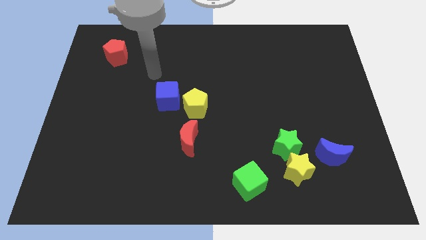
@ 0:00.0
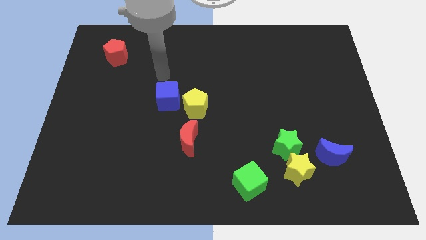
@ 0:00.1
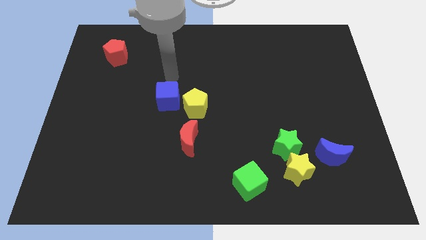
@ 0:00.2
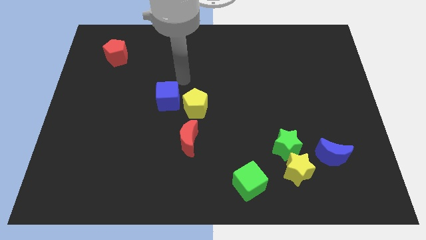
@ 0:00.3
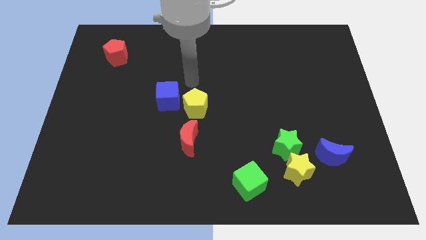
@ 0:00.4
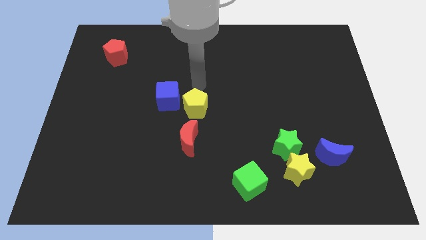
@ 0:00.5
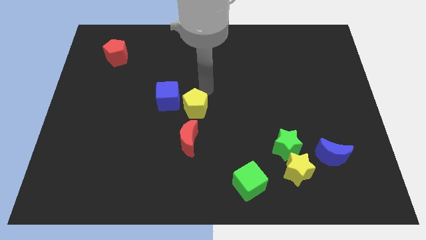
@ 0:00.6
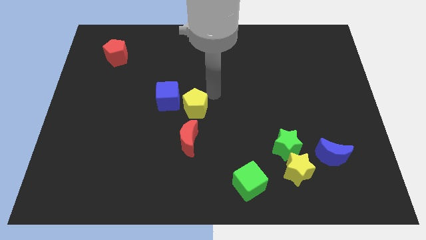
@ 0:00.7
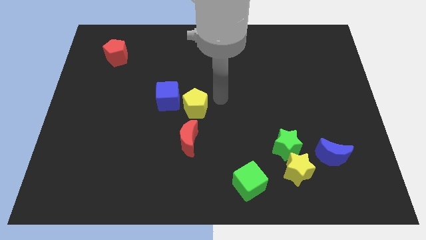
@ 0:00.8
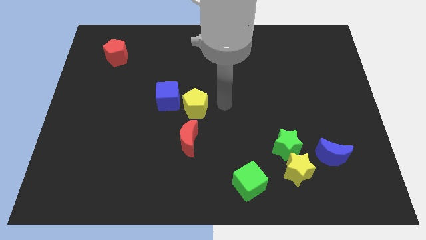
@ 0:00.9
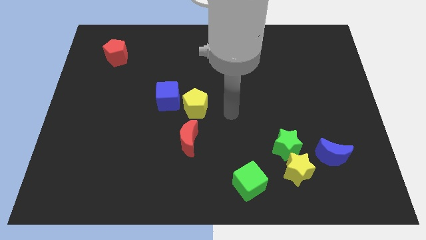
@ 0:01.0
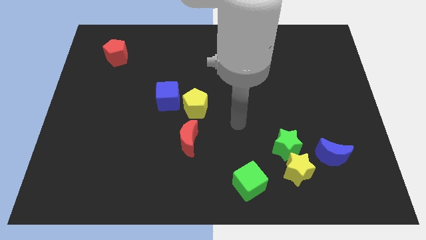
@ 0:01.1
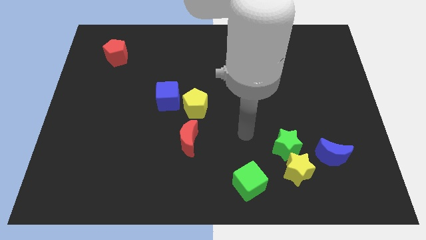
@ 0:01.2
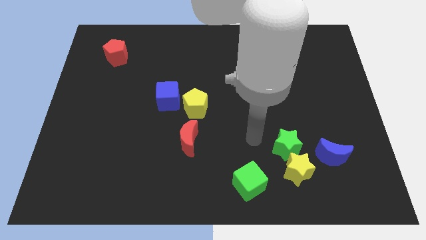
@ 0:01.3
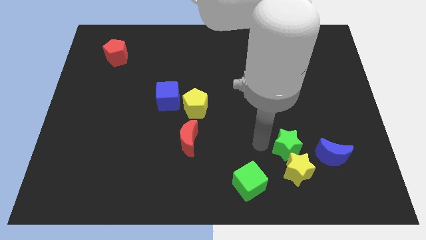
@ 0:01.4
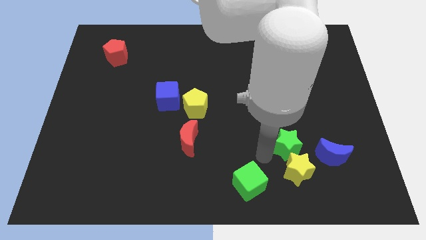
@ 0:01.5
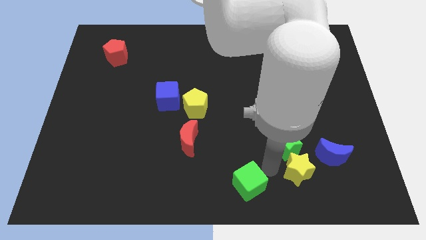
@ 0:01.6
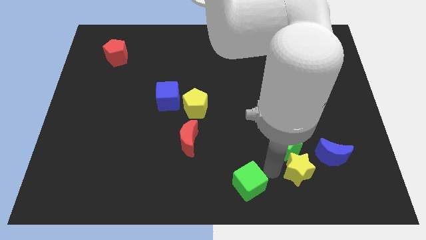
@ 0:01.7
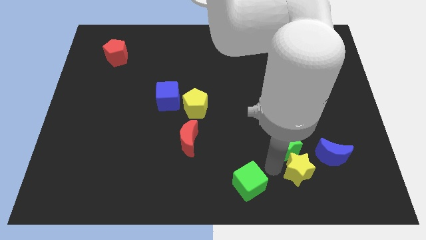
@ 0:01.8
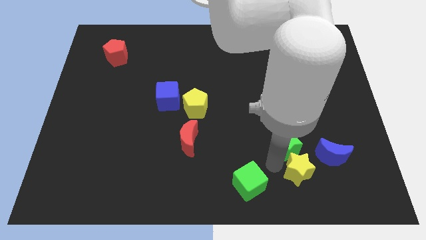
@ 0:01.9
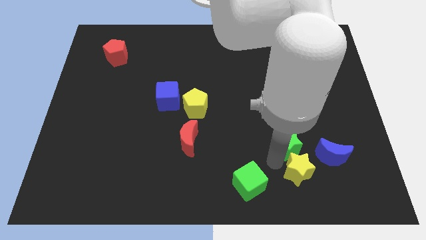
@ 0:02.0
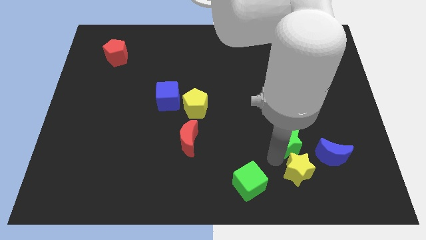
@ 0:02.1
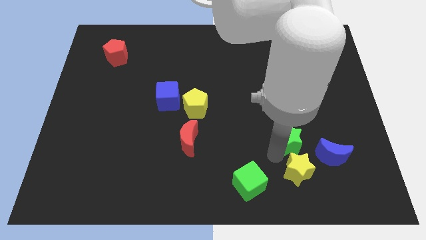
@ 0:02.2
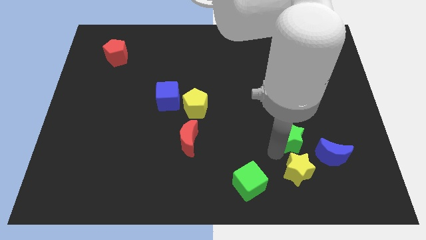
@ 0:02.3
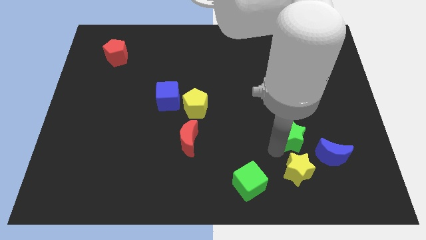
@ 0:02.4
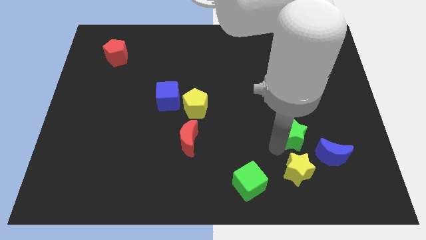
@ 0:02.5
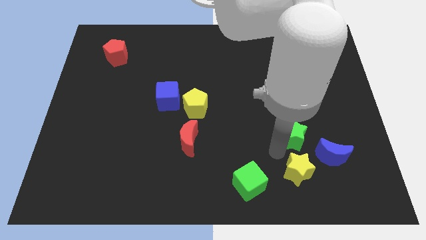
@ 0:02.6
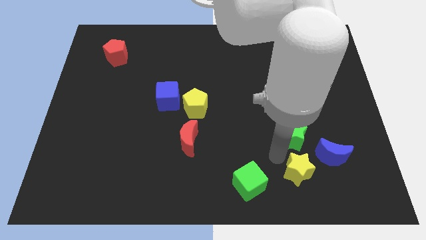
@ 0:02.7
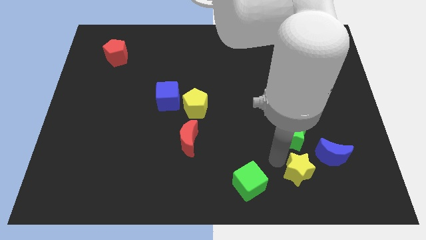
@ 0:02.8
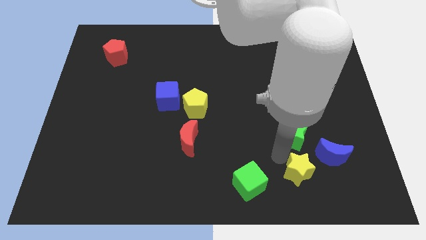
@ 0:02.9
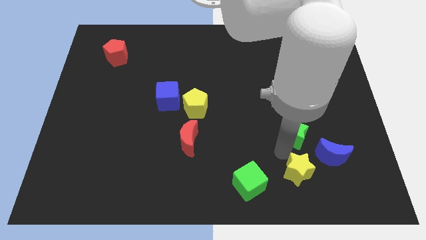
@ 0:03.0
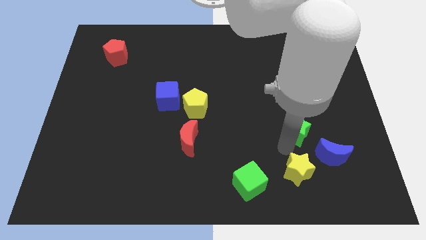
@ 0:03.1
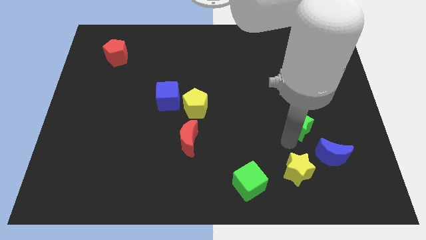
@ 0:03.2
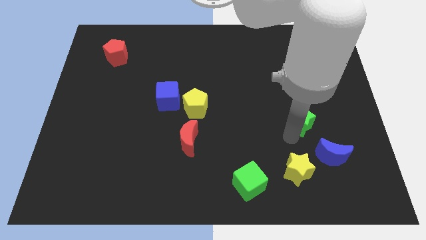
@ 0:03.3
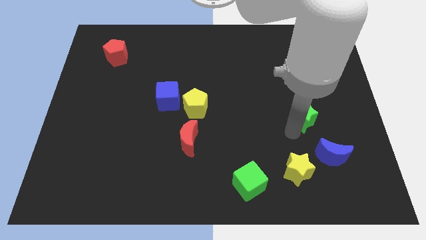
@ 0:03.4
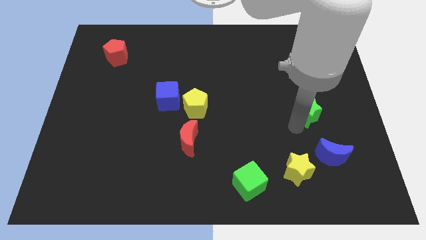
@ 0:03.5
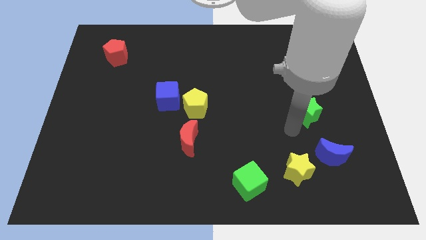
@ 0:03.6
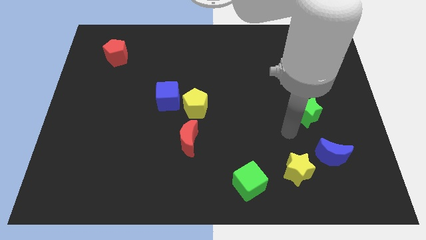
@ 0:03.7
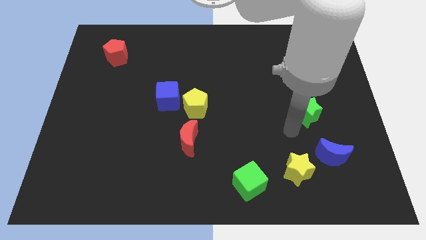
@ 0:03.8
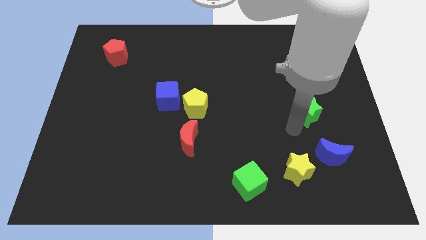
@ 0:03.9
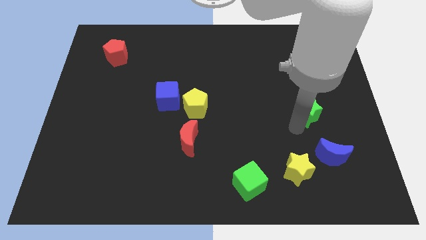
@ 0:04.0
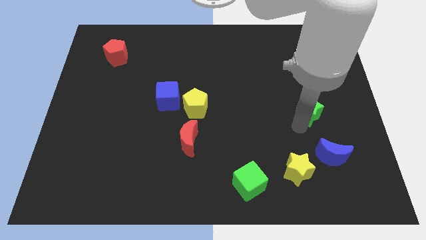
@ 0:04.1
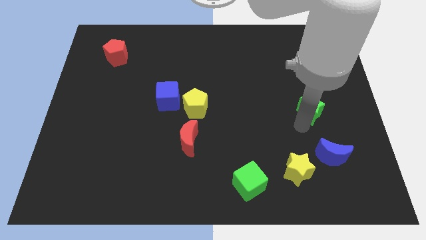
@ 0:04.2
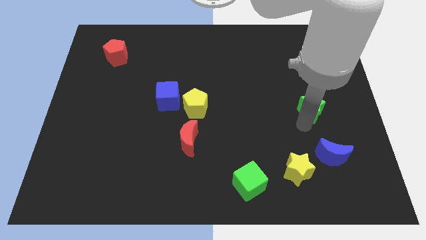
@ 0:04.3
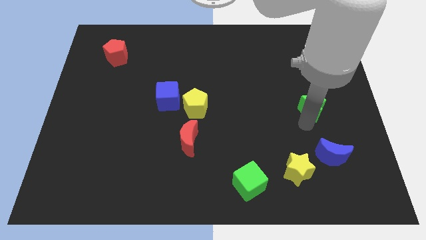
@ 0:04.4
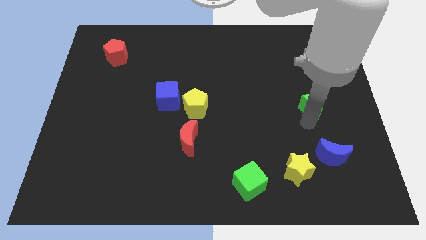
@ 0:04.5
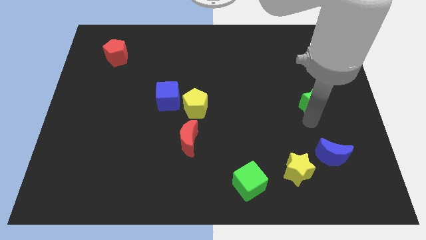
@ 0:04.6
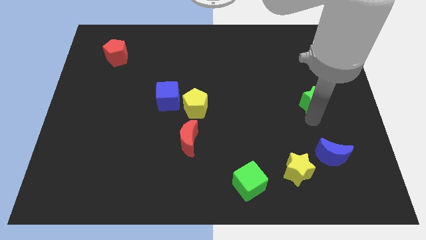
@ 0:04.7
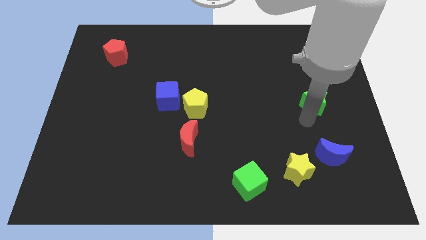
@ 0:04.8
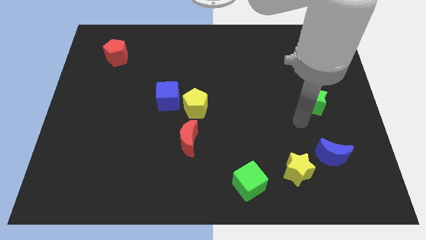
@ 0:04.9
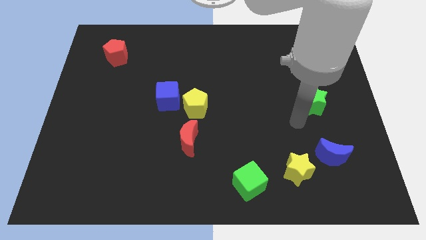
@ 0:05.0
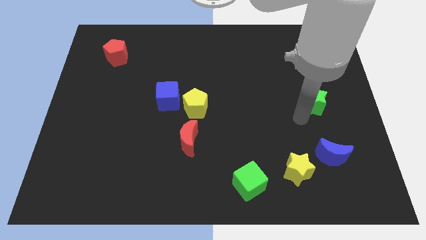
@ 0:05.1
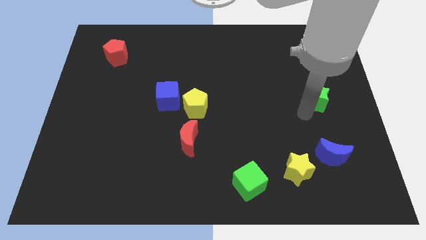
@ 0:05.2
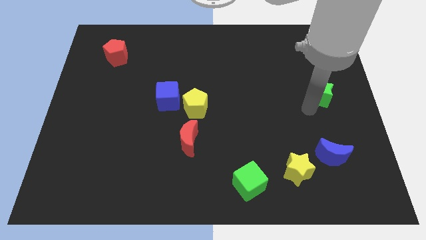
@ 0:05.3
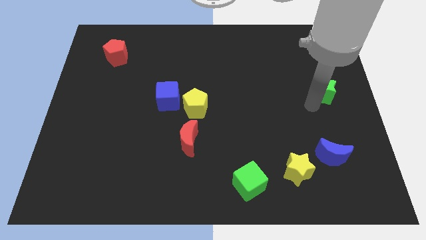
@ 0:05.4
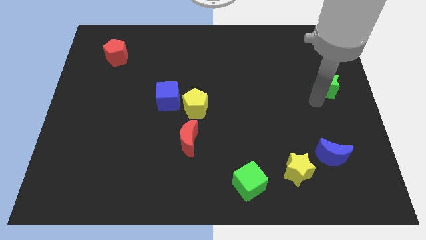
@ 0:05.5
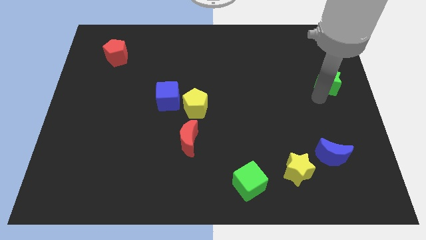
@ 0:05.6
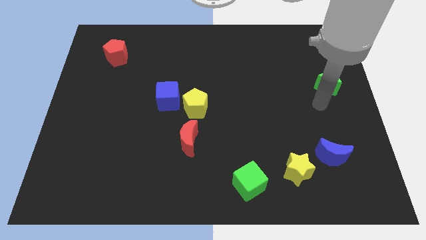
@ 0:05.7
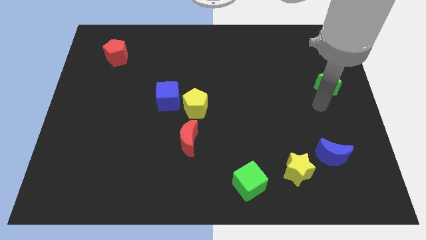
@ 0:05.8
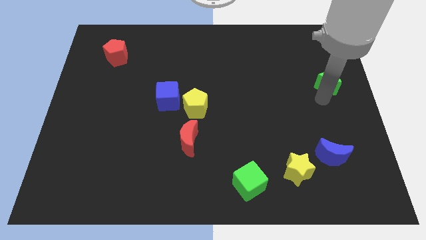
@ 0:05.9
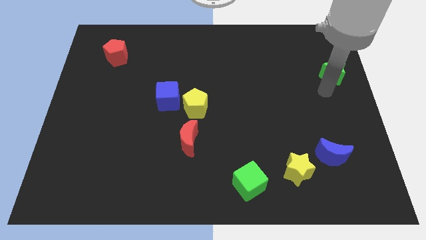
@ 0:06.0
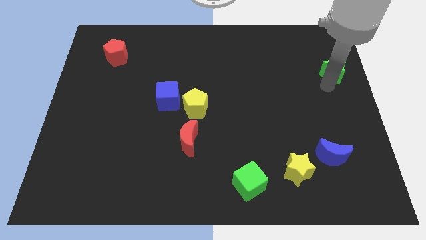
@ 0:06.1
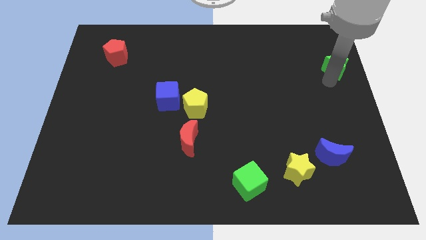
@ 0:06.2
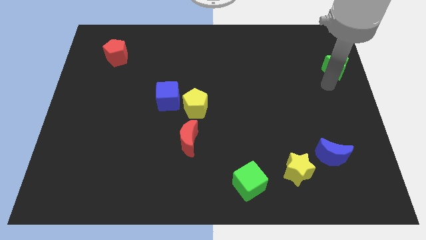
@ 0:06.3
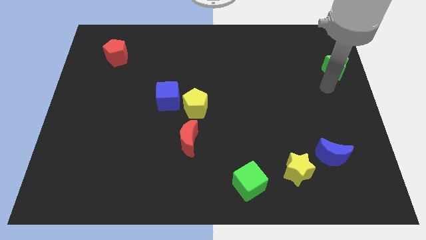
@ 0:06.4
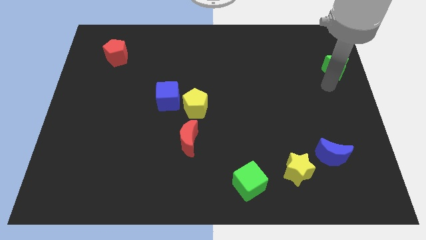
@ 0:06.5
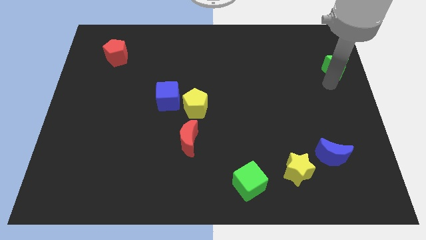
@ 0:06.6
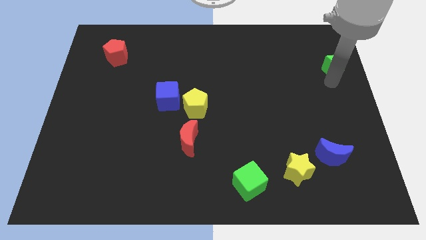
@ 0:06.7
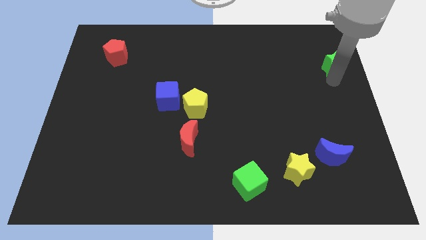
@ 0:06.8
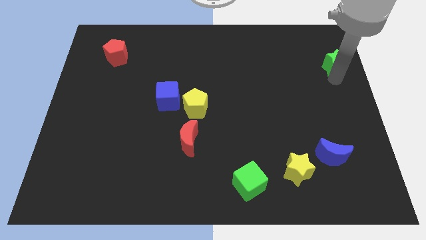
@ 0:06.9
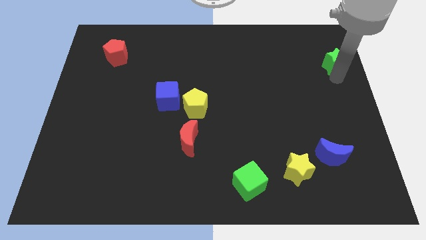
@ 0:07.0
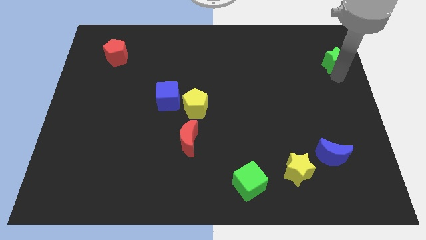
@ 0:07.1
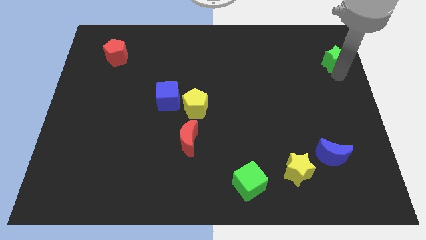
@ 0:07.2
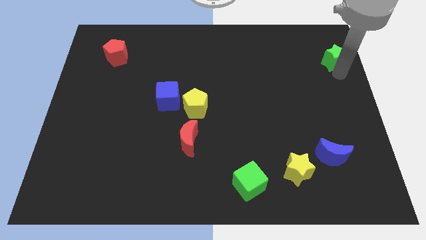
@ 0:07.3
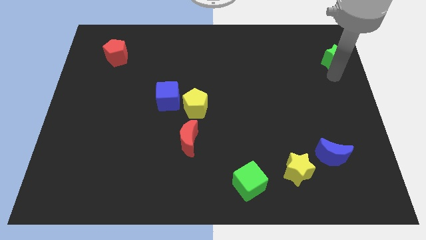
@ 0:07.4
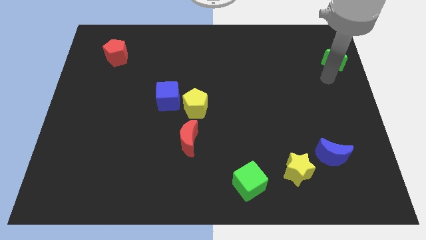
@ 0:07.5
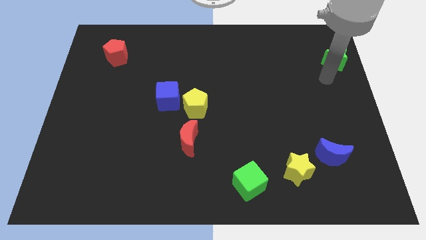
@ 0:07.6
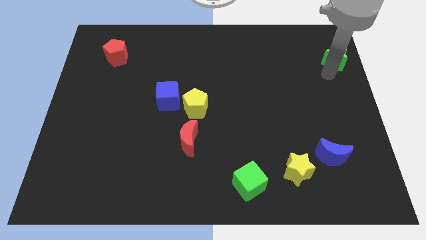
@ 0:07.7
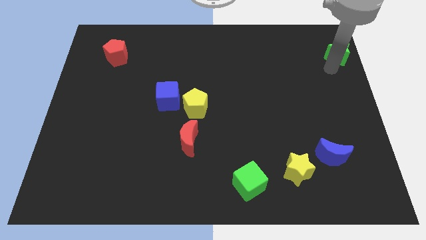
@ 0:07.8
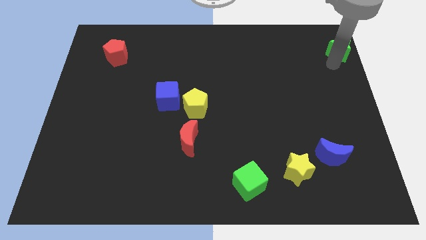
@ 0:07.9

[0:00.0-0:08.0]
put the green star to the top right corner

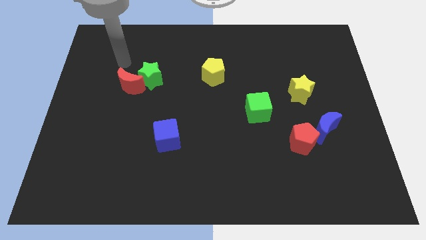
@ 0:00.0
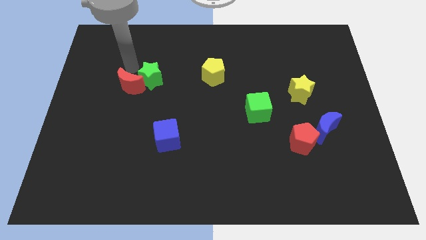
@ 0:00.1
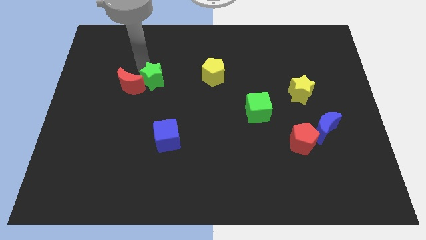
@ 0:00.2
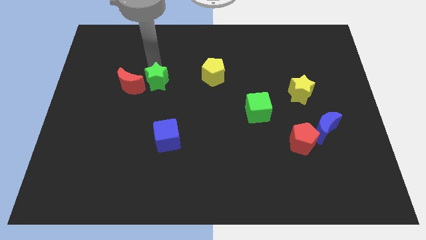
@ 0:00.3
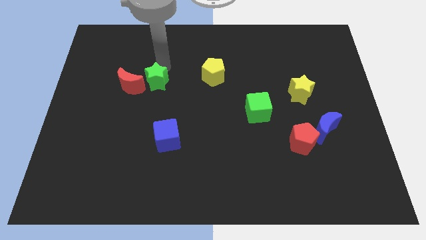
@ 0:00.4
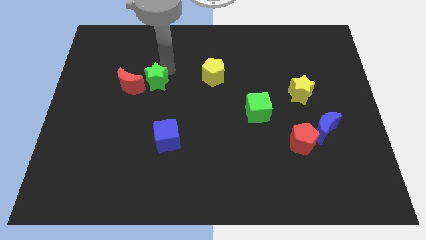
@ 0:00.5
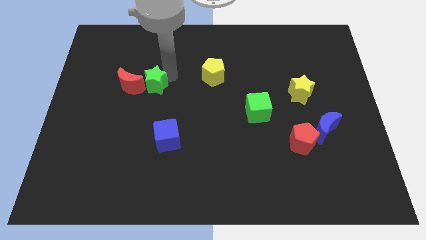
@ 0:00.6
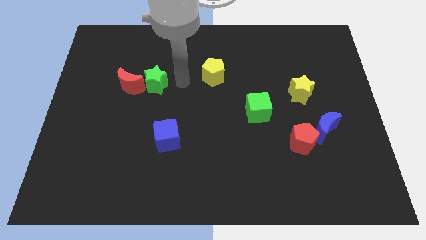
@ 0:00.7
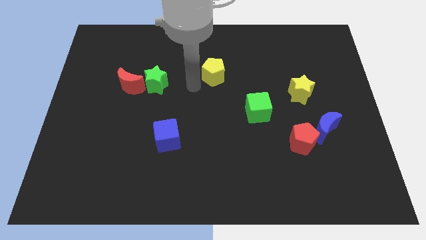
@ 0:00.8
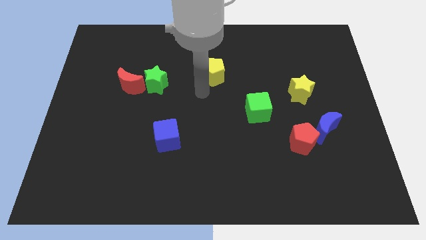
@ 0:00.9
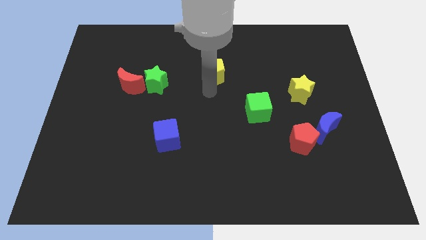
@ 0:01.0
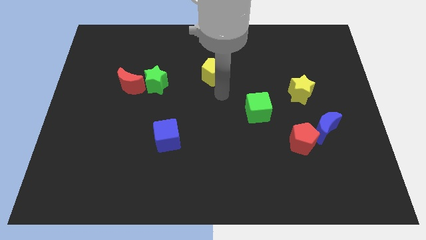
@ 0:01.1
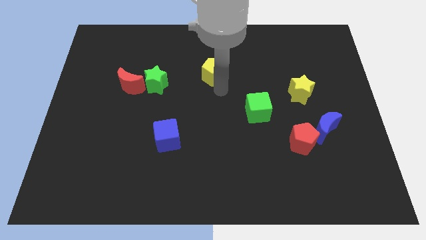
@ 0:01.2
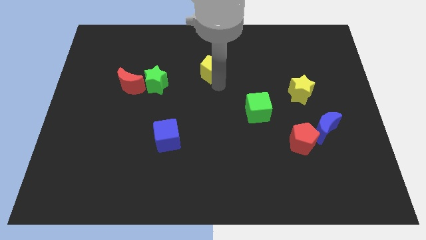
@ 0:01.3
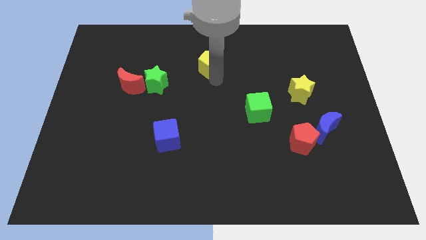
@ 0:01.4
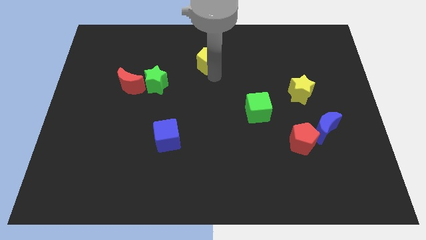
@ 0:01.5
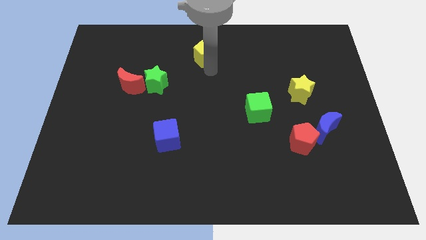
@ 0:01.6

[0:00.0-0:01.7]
slide the yellow pentagon to the towards your base
